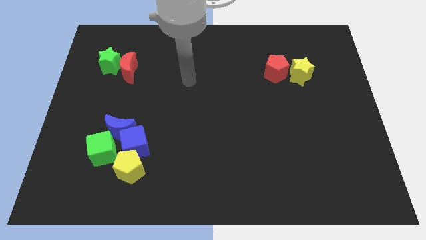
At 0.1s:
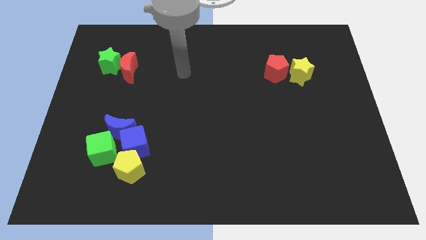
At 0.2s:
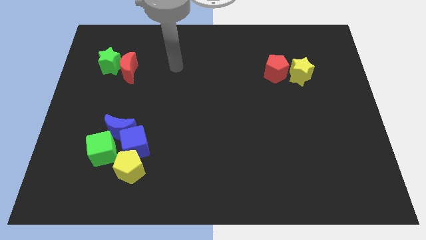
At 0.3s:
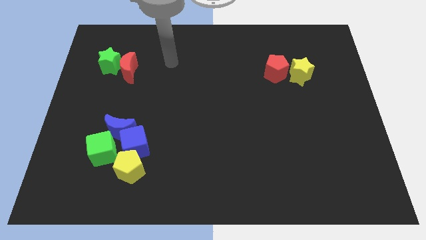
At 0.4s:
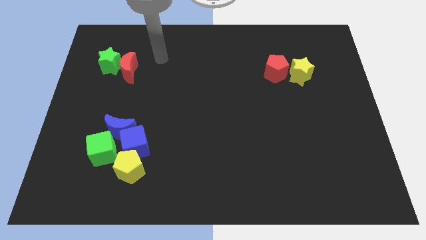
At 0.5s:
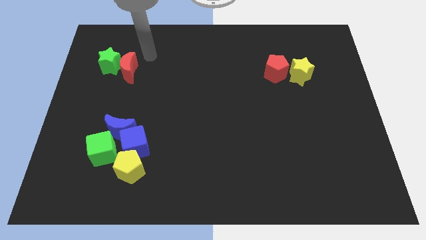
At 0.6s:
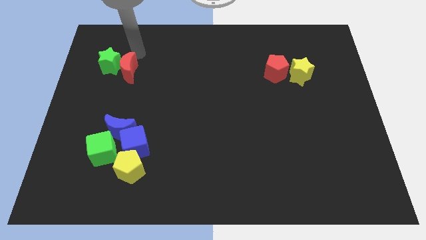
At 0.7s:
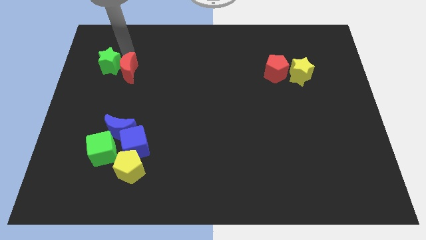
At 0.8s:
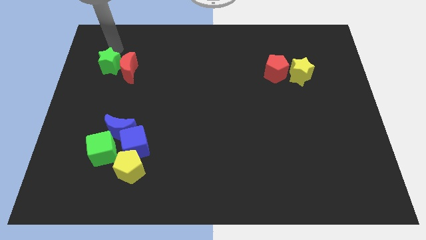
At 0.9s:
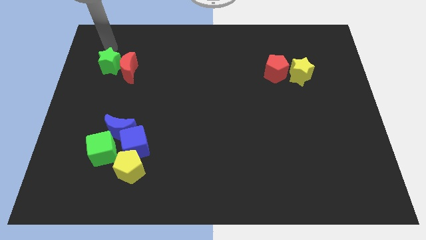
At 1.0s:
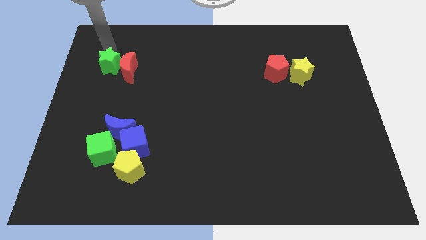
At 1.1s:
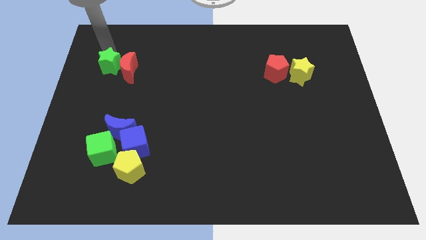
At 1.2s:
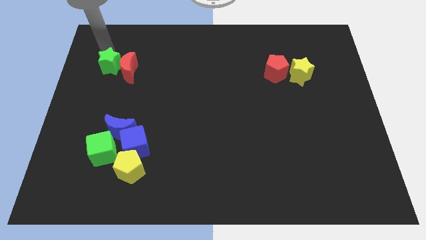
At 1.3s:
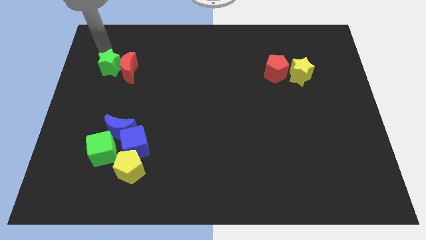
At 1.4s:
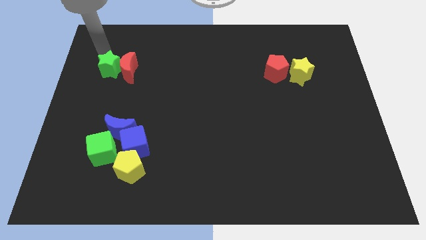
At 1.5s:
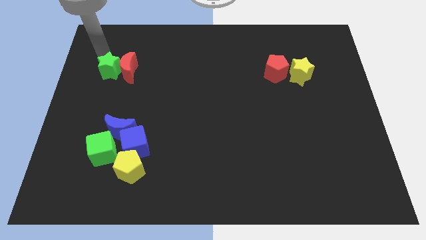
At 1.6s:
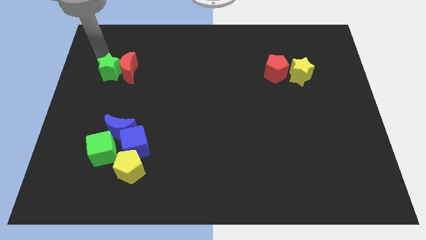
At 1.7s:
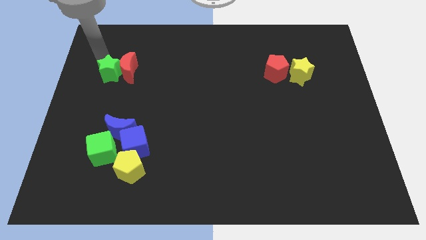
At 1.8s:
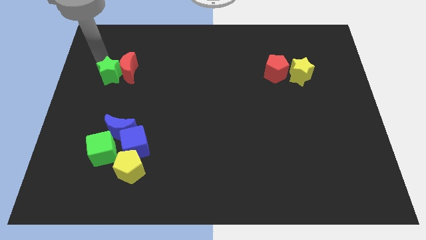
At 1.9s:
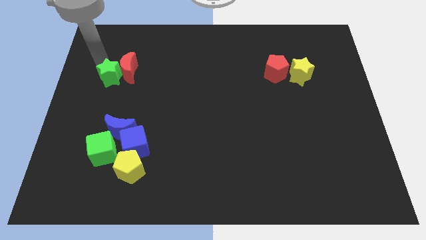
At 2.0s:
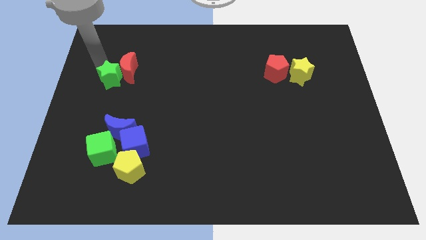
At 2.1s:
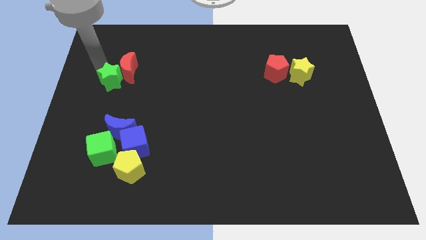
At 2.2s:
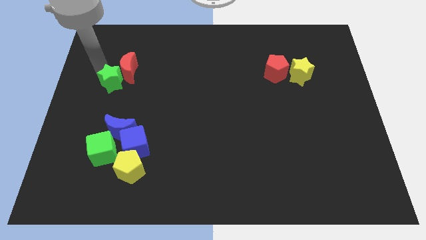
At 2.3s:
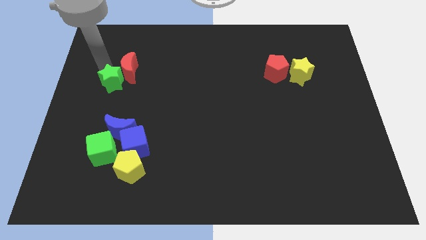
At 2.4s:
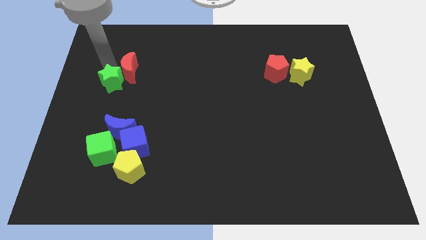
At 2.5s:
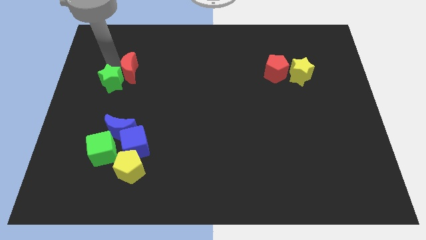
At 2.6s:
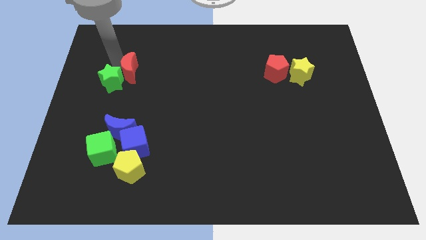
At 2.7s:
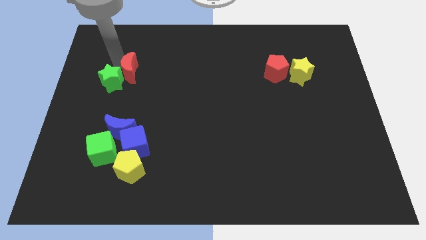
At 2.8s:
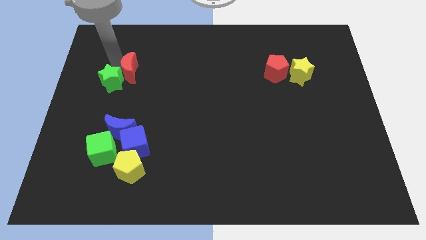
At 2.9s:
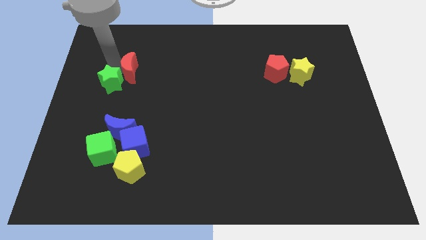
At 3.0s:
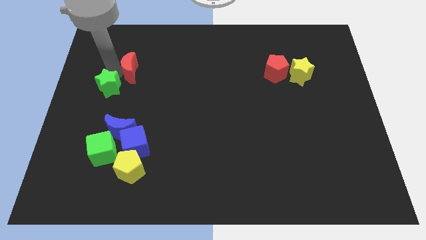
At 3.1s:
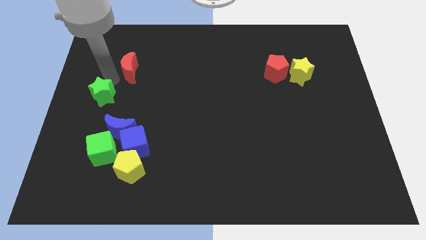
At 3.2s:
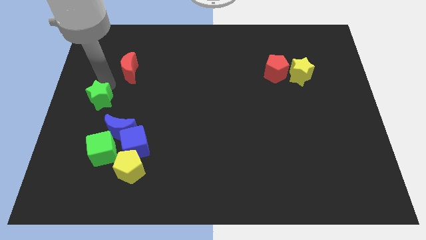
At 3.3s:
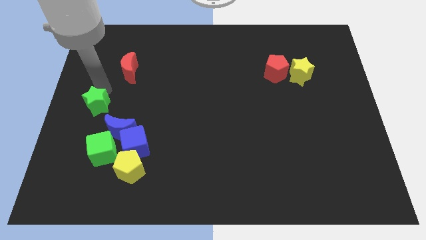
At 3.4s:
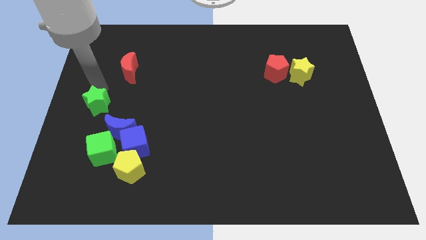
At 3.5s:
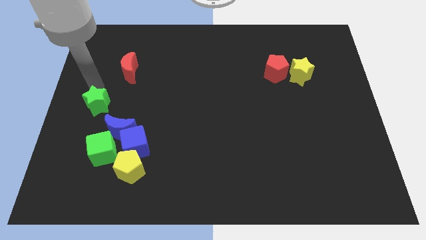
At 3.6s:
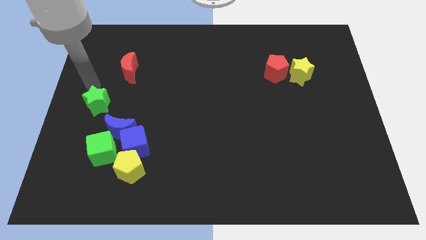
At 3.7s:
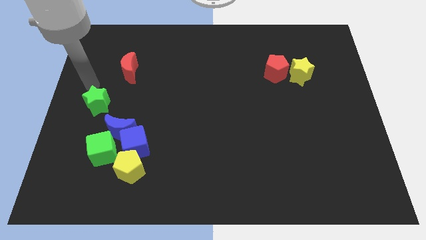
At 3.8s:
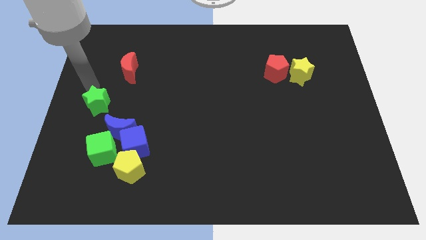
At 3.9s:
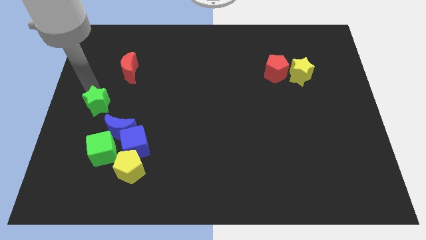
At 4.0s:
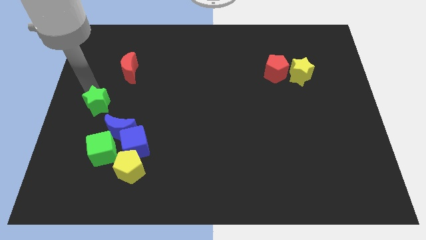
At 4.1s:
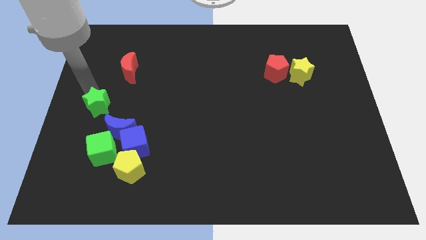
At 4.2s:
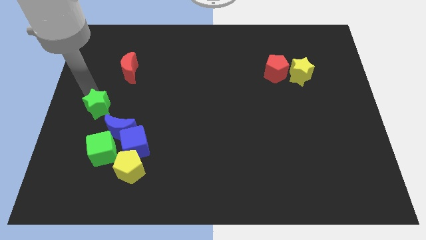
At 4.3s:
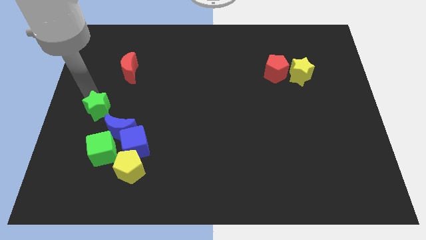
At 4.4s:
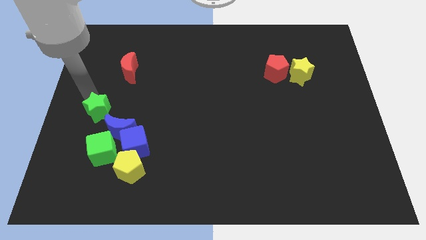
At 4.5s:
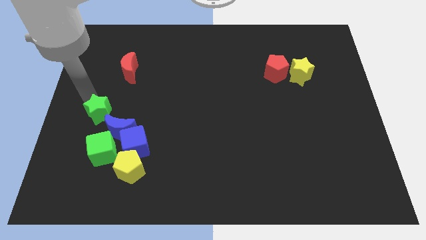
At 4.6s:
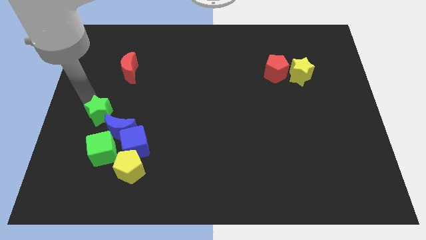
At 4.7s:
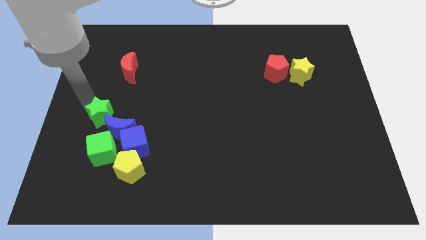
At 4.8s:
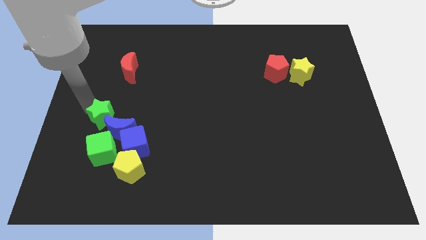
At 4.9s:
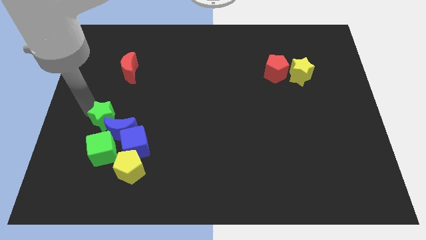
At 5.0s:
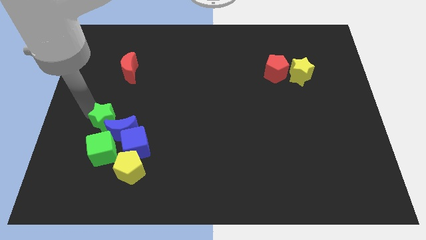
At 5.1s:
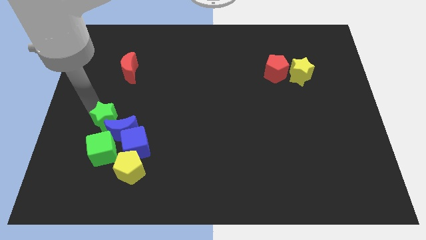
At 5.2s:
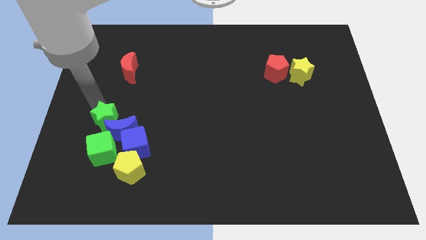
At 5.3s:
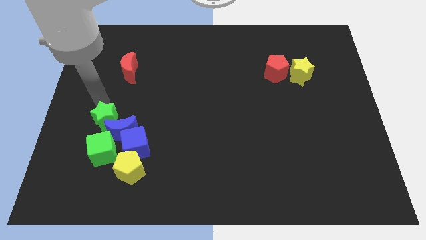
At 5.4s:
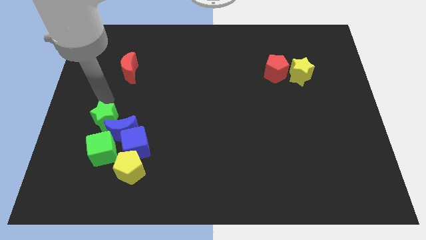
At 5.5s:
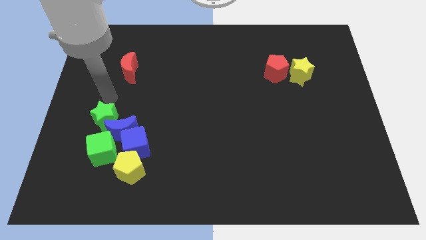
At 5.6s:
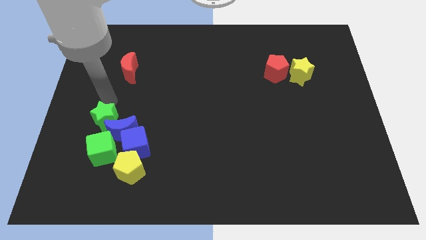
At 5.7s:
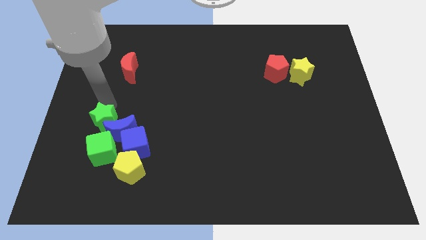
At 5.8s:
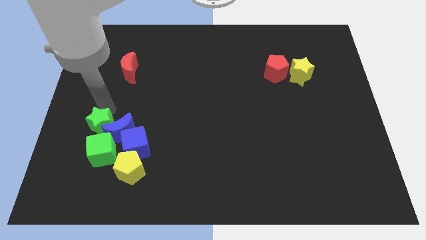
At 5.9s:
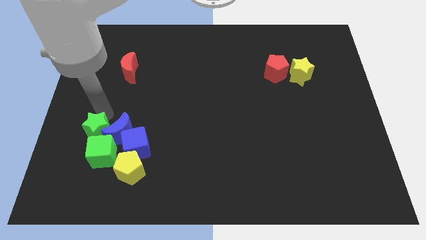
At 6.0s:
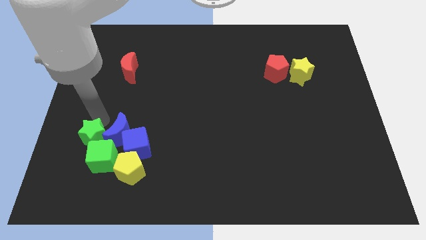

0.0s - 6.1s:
push the green star towards the green cube
